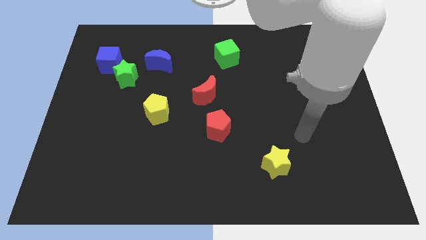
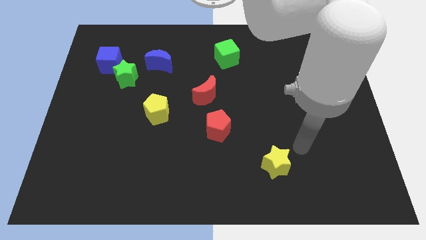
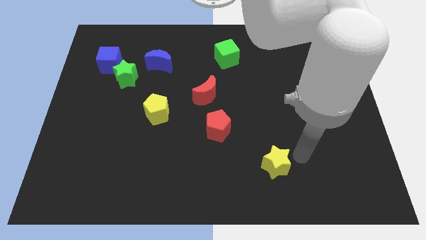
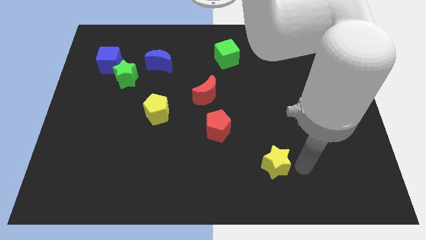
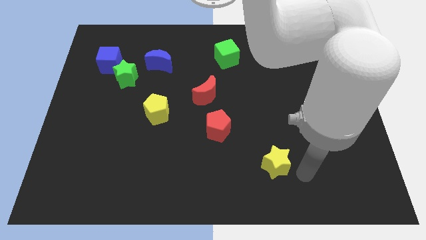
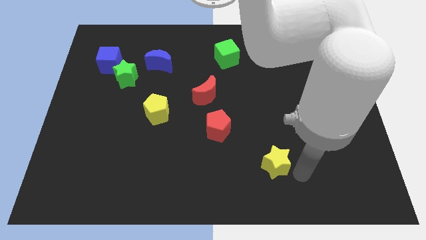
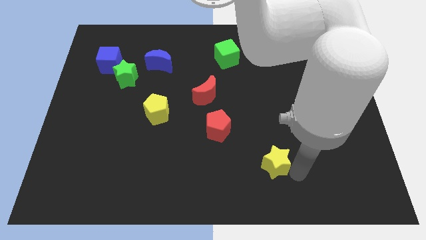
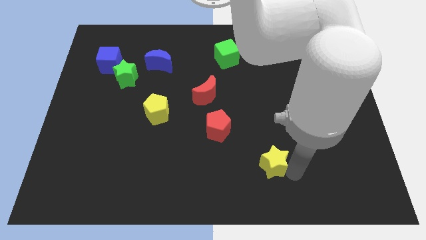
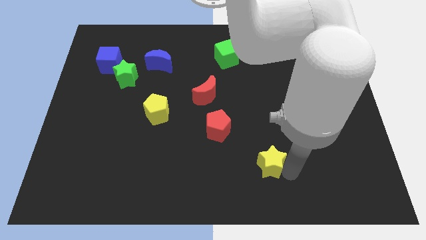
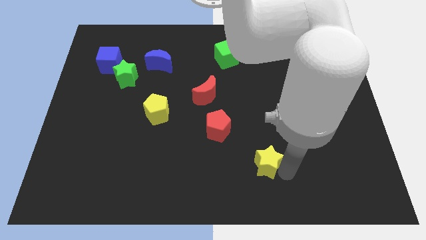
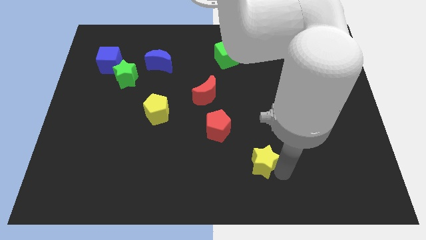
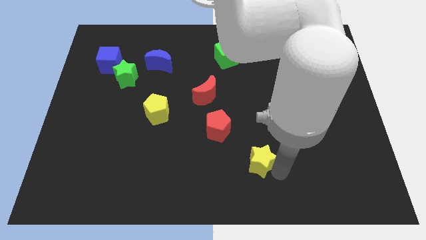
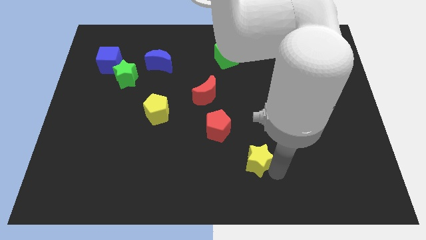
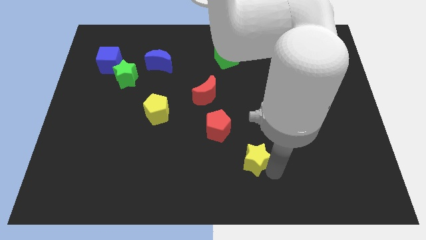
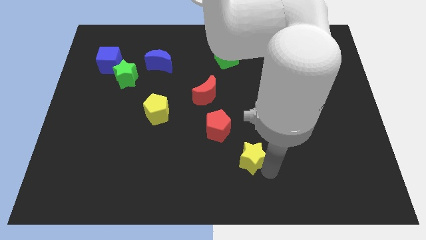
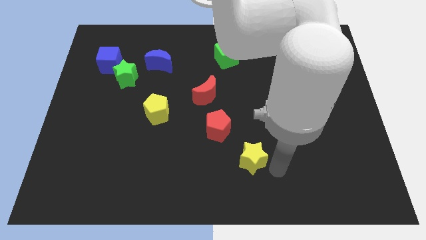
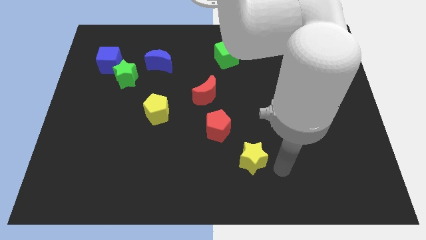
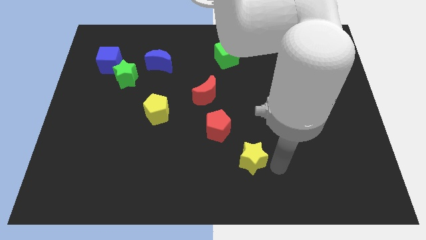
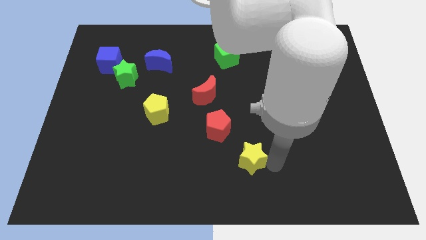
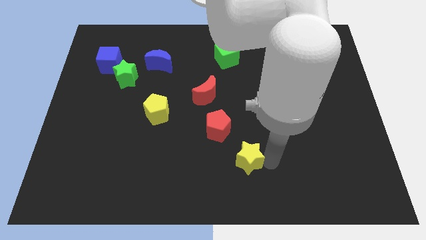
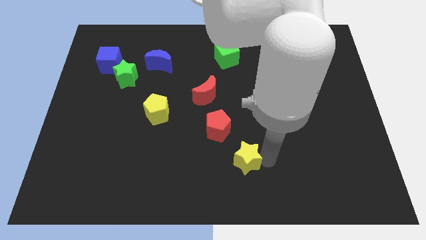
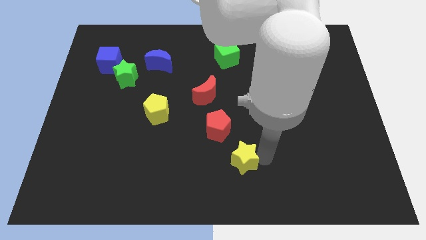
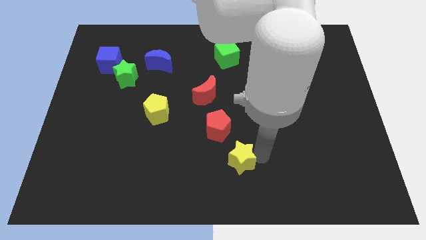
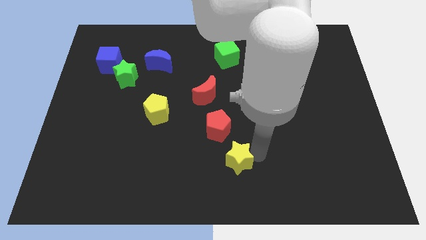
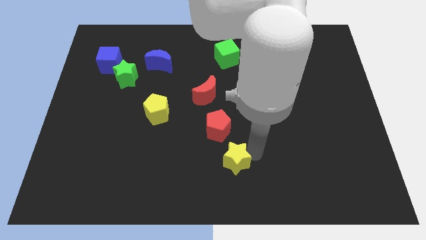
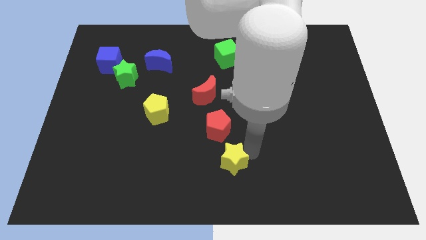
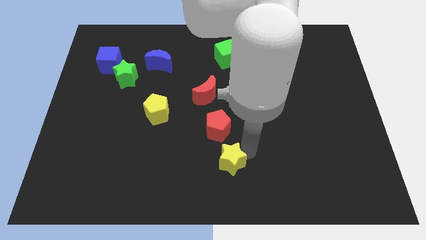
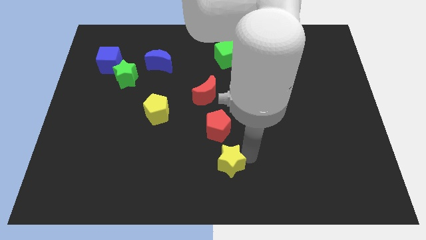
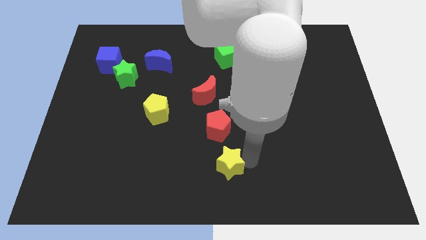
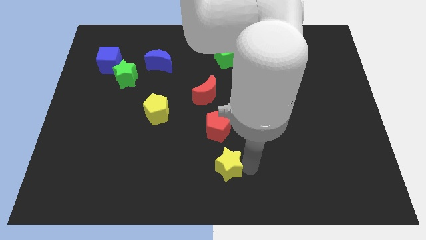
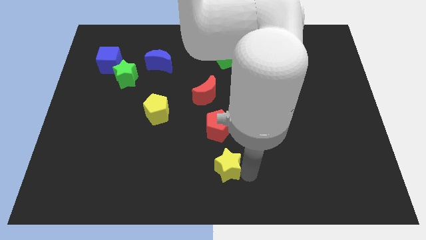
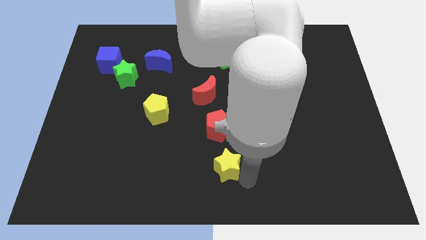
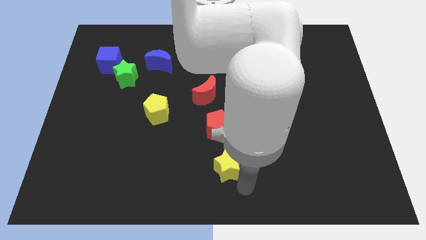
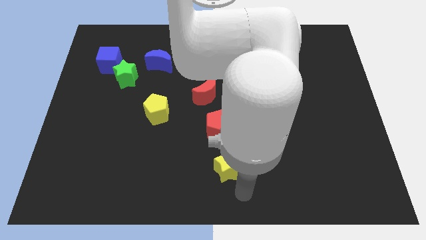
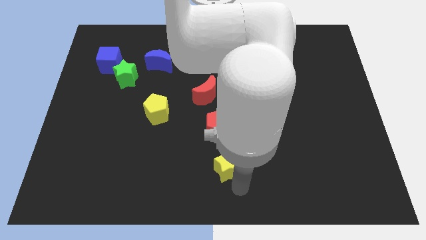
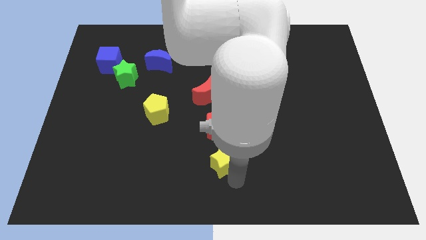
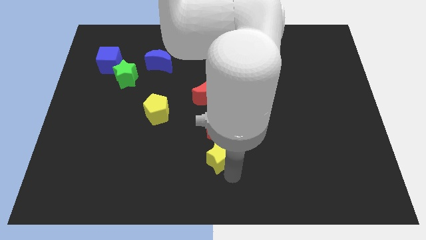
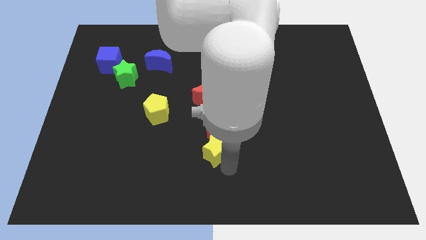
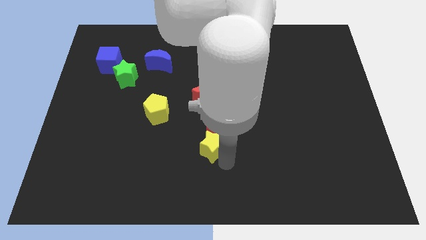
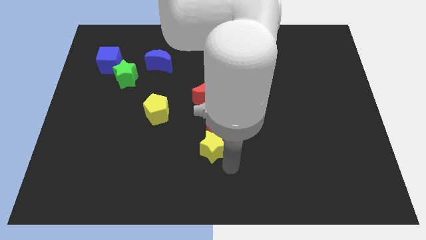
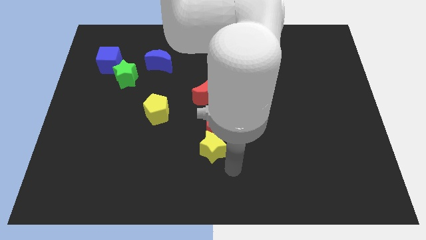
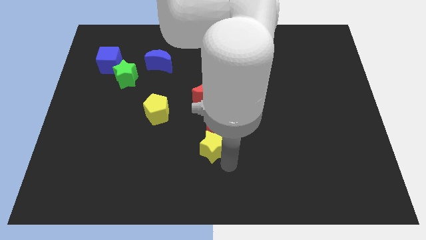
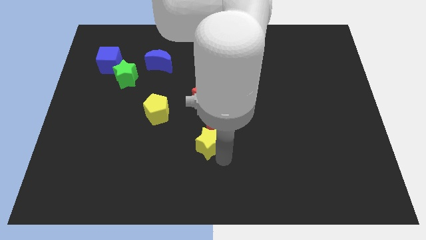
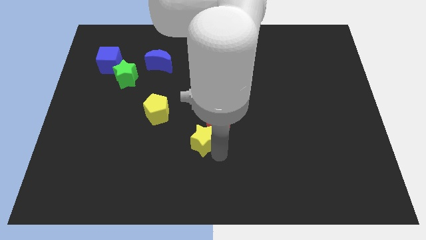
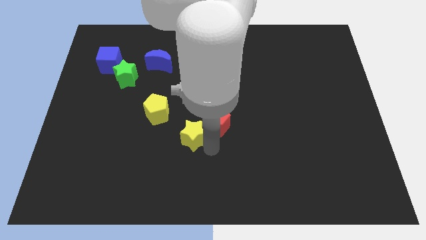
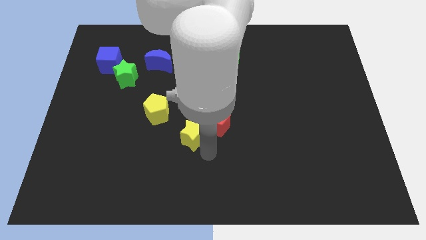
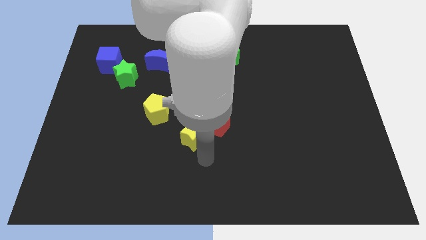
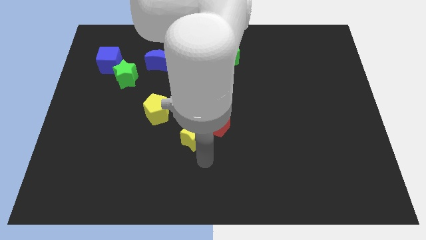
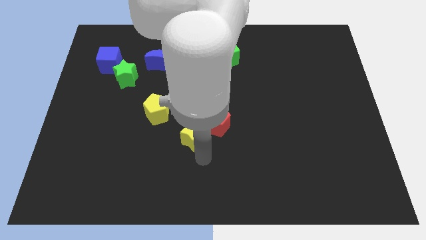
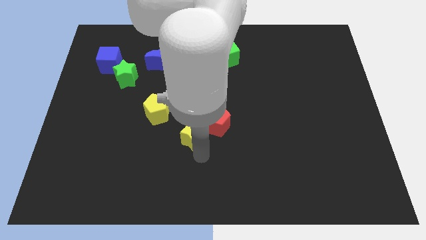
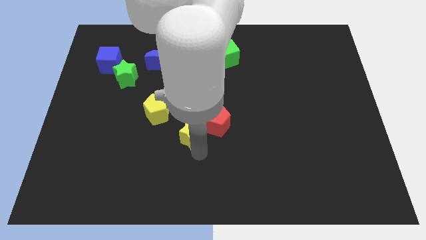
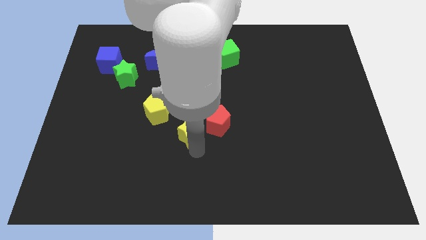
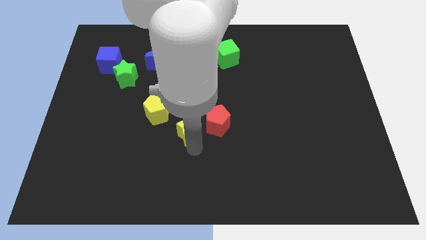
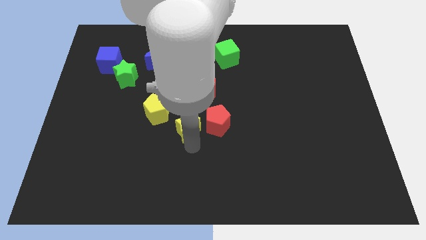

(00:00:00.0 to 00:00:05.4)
slide the yellow star diagonally down and to the left of the red moon

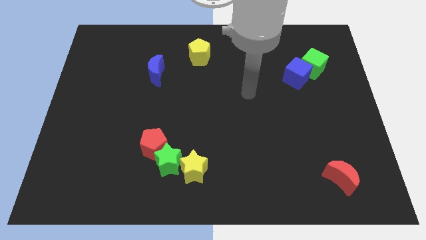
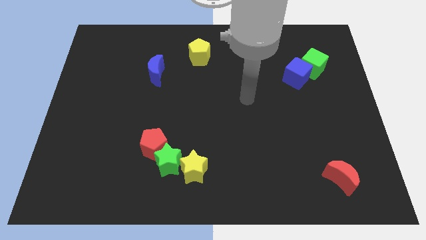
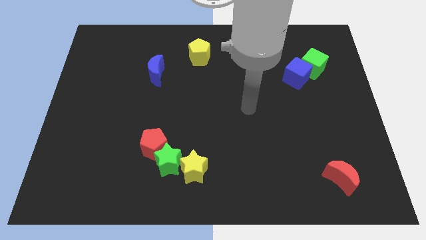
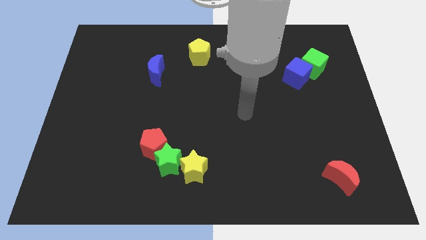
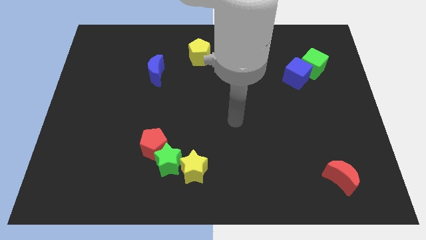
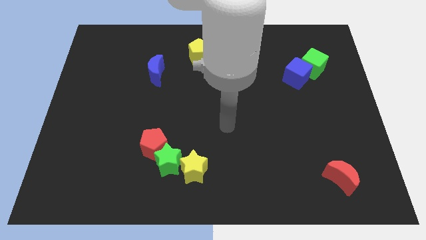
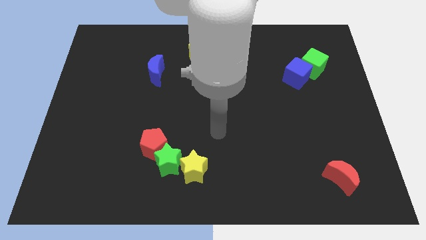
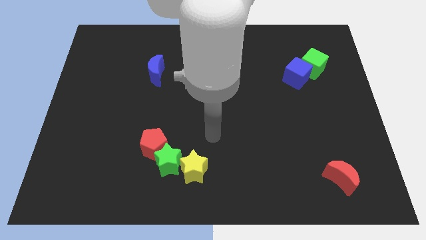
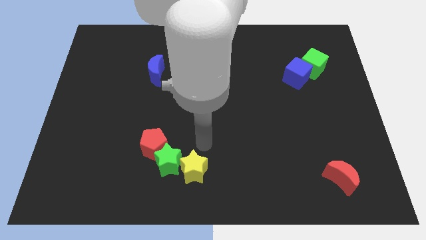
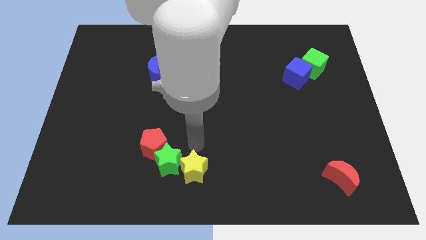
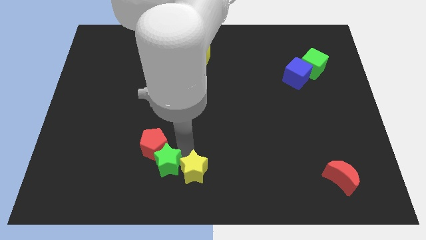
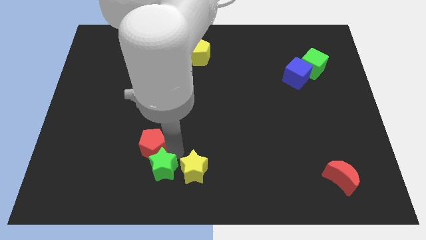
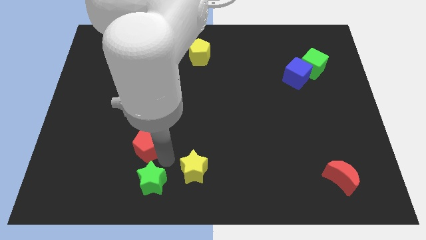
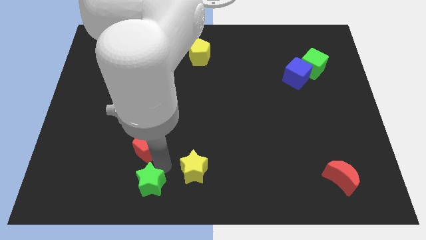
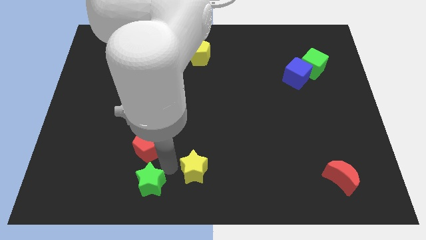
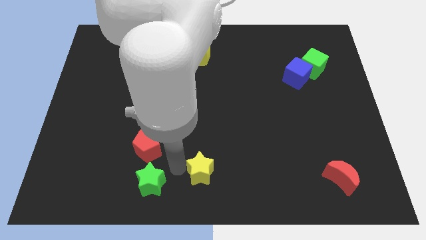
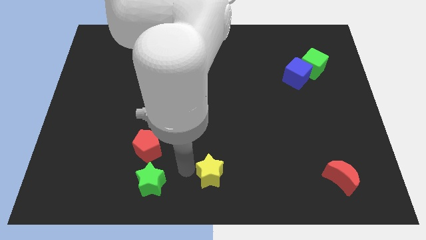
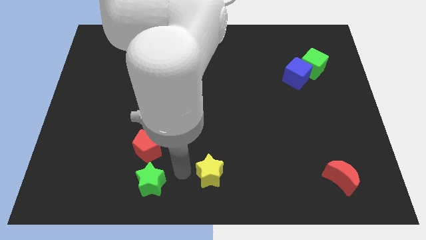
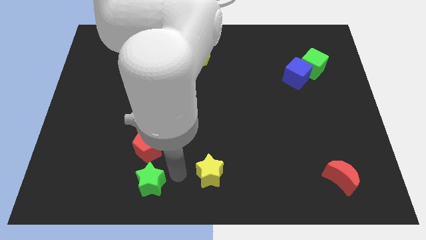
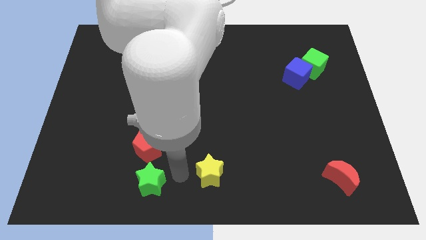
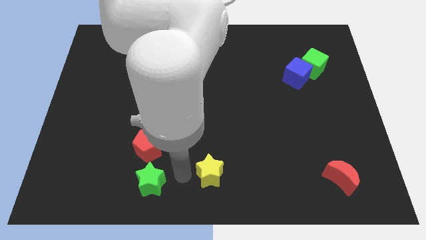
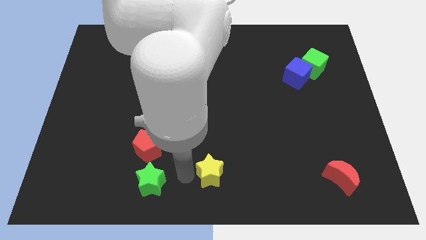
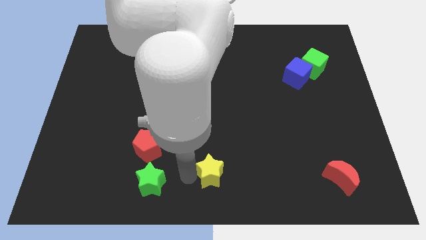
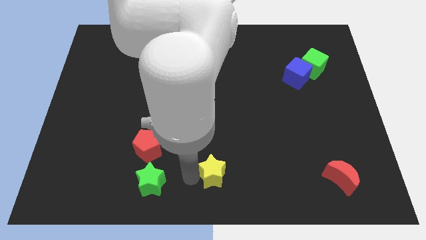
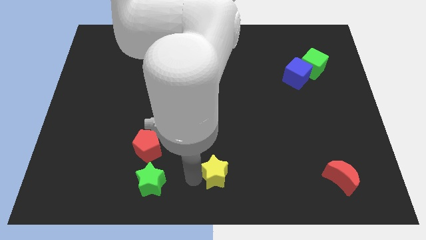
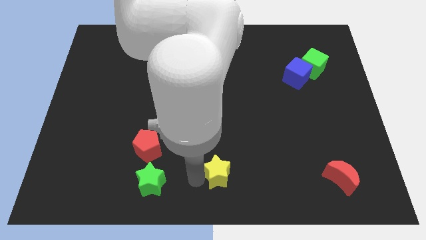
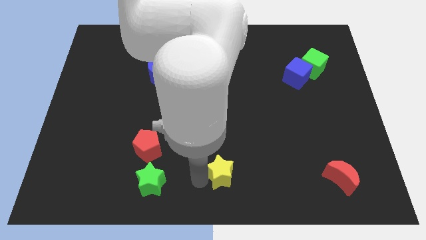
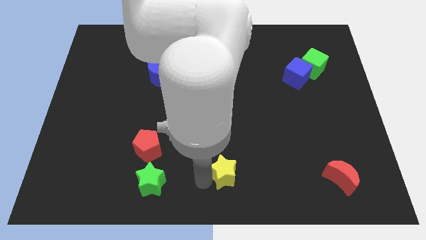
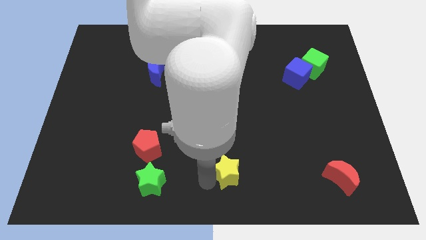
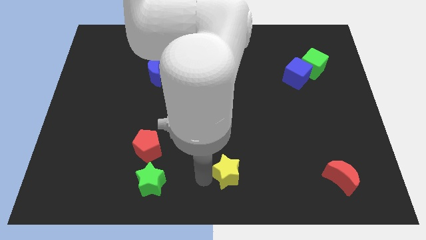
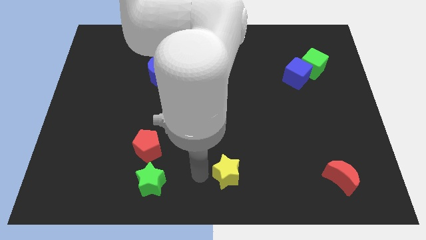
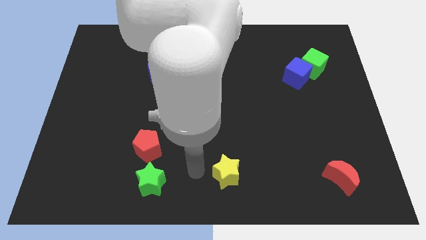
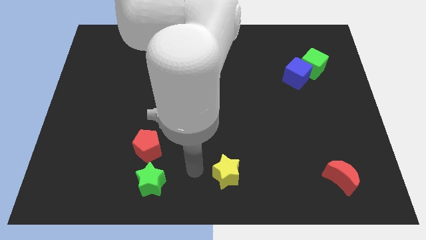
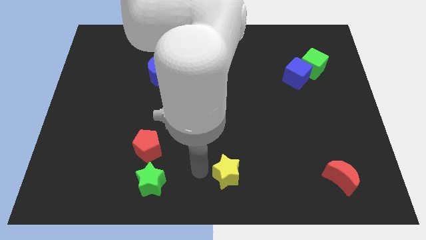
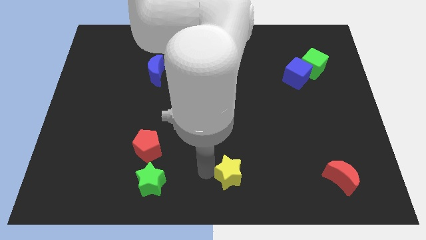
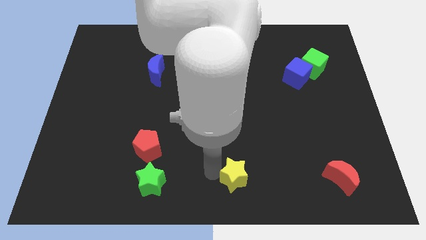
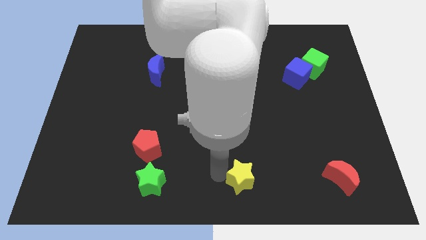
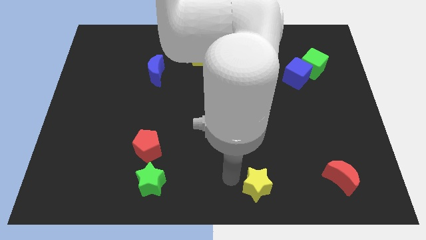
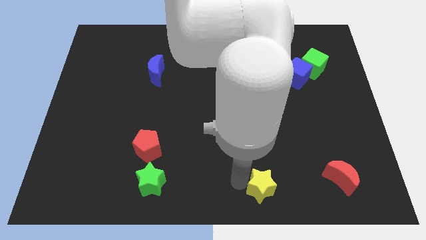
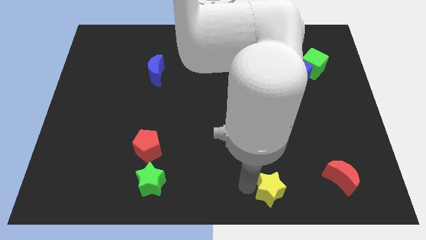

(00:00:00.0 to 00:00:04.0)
move the yellow star left of the red moon
